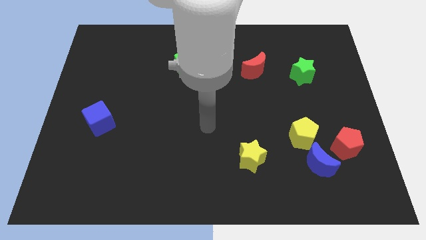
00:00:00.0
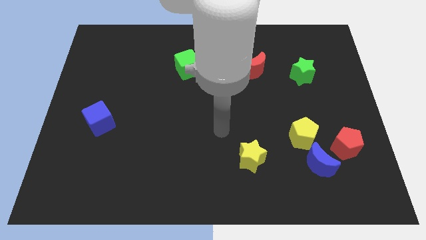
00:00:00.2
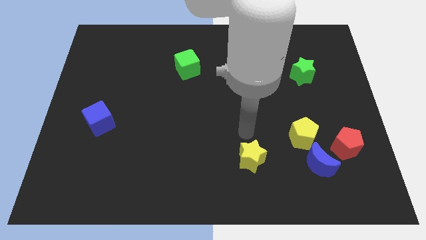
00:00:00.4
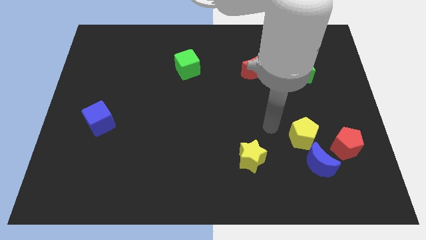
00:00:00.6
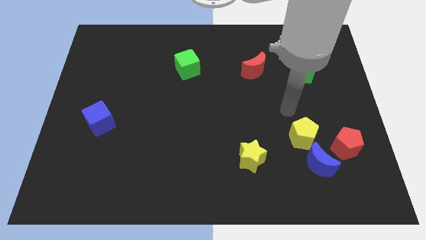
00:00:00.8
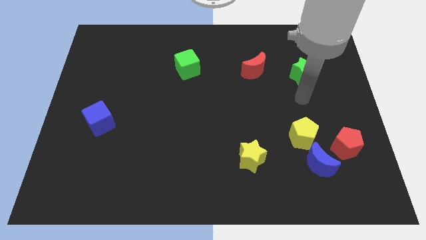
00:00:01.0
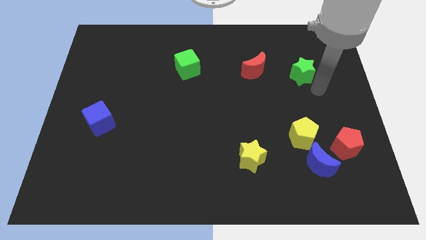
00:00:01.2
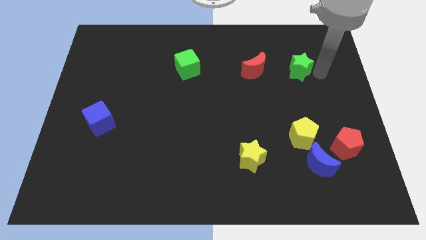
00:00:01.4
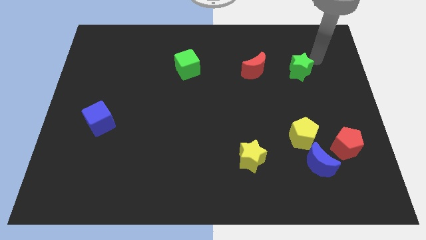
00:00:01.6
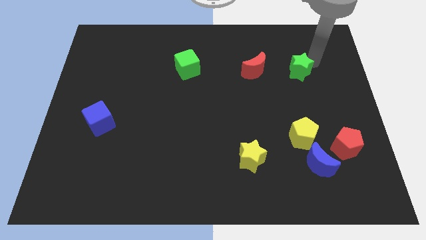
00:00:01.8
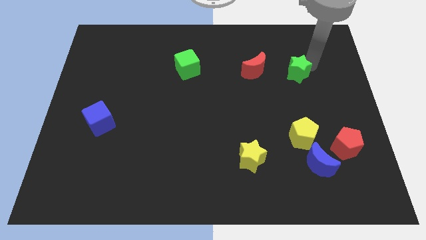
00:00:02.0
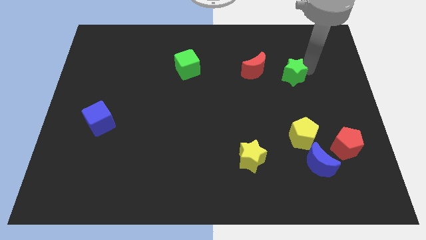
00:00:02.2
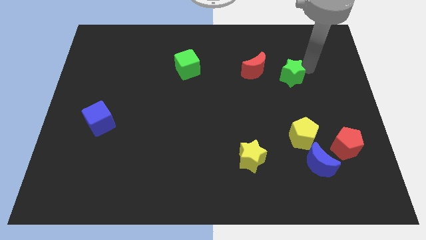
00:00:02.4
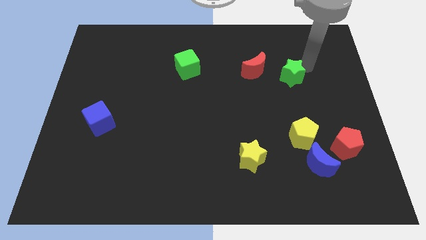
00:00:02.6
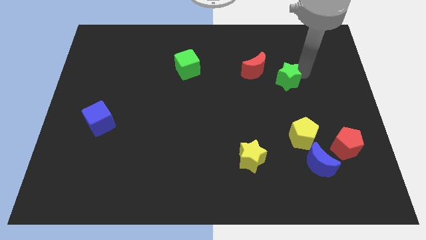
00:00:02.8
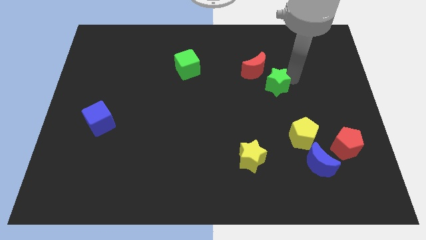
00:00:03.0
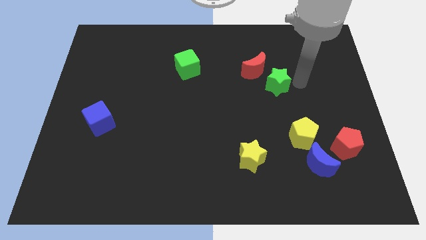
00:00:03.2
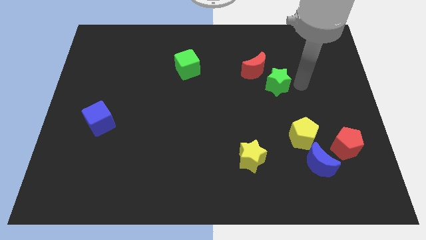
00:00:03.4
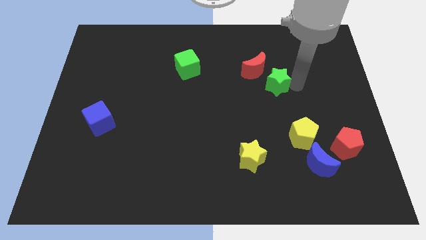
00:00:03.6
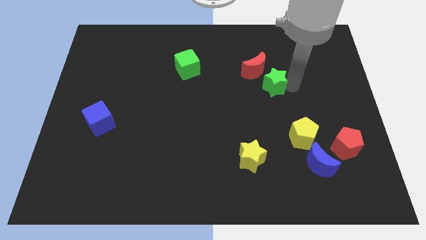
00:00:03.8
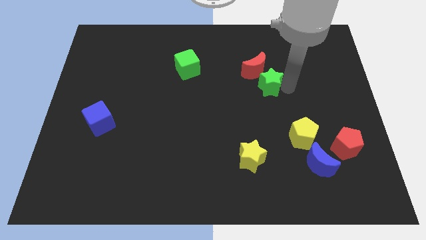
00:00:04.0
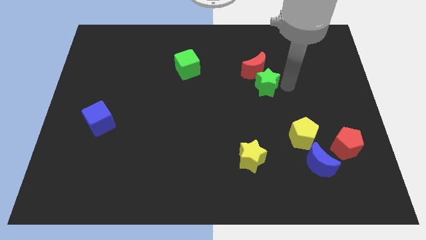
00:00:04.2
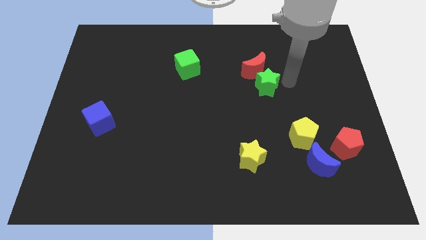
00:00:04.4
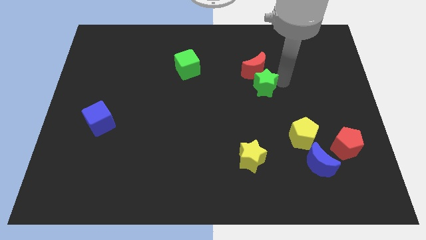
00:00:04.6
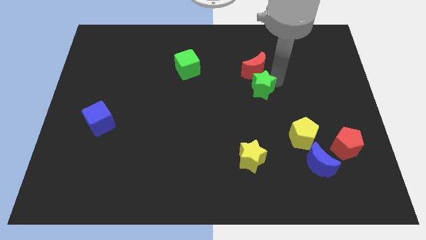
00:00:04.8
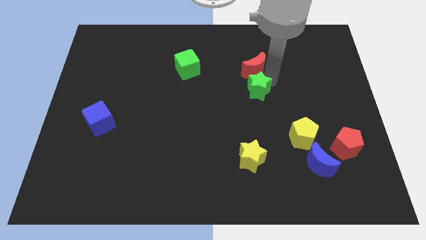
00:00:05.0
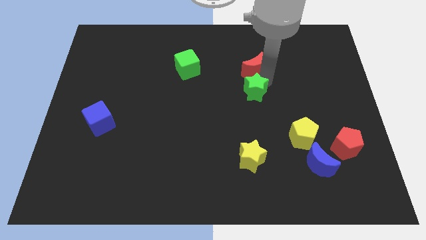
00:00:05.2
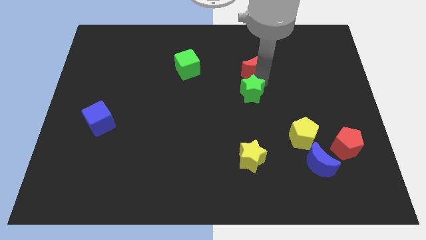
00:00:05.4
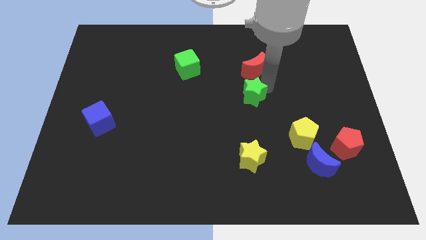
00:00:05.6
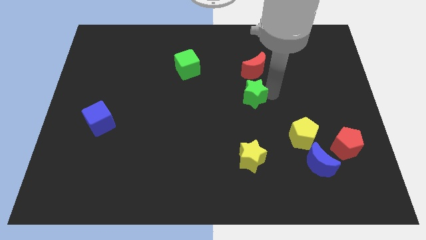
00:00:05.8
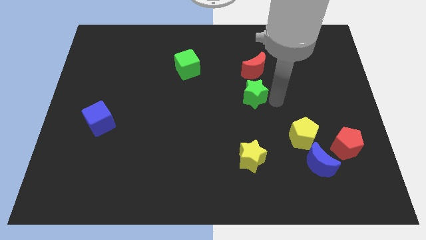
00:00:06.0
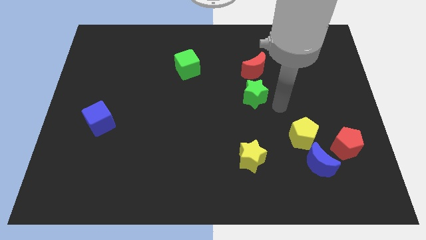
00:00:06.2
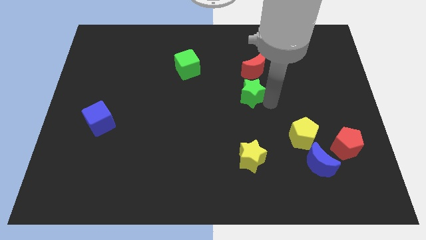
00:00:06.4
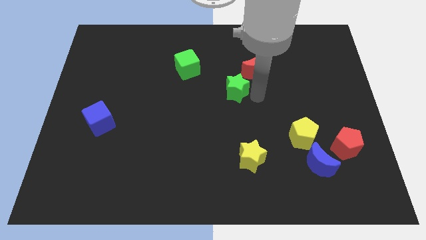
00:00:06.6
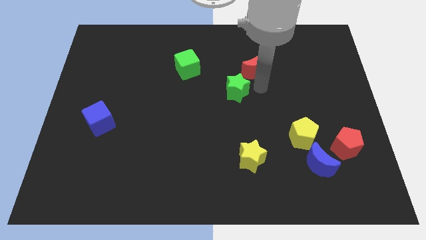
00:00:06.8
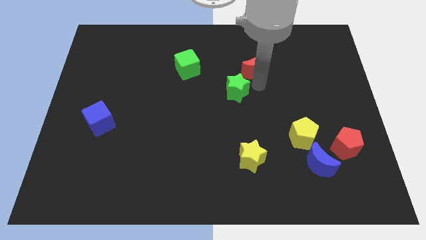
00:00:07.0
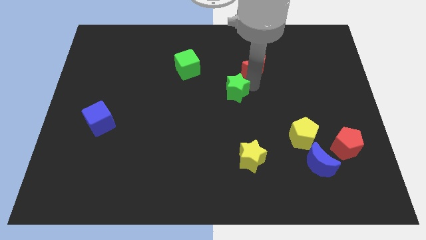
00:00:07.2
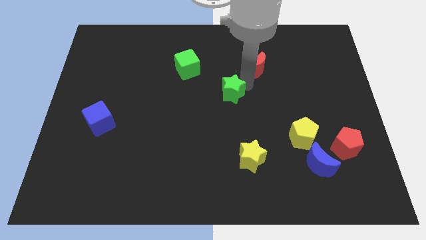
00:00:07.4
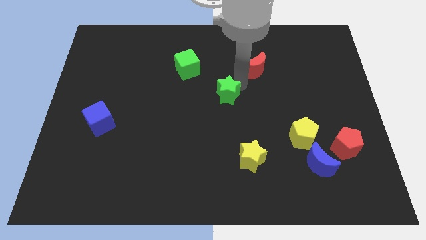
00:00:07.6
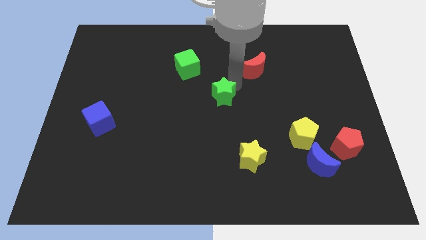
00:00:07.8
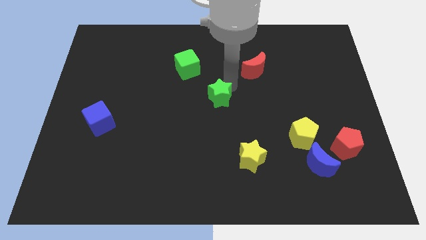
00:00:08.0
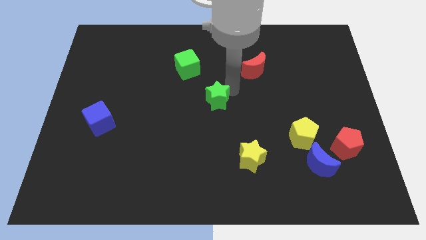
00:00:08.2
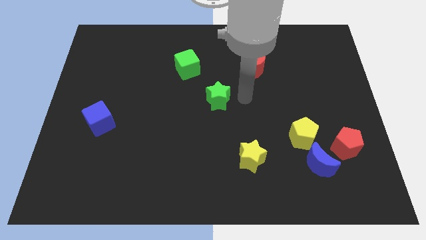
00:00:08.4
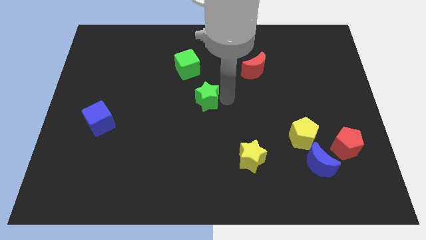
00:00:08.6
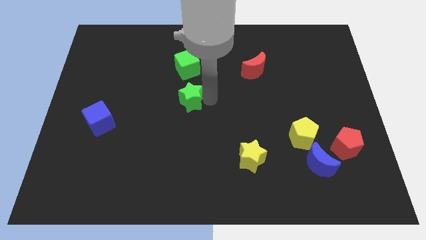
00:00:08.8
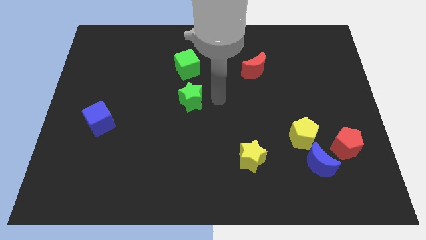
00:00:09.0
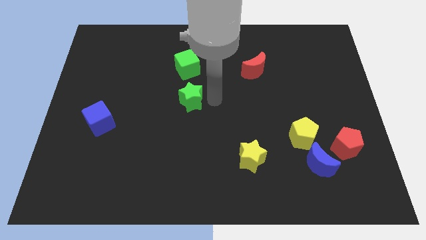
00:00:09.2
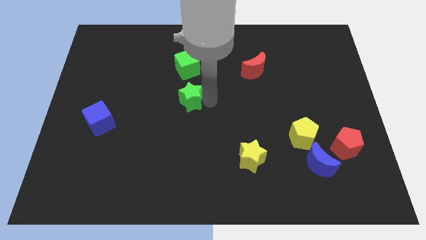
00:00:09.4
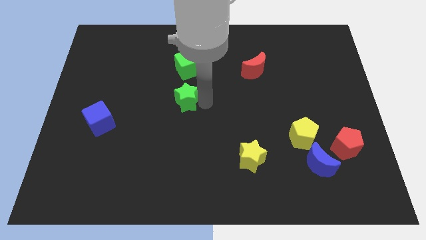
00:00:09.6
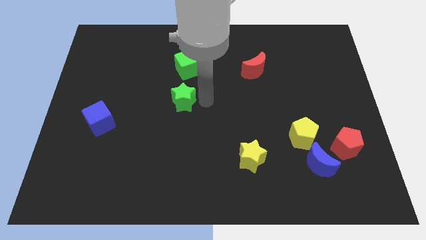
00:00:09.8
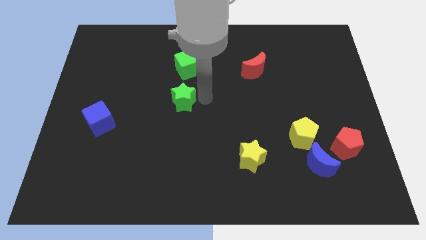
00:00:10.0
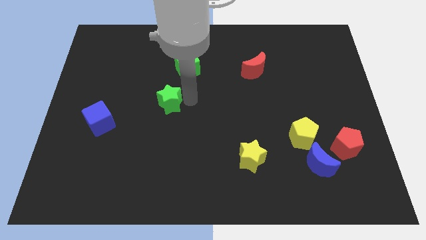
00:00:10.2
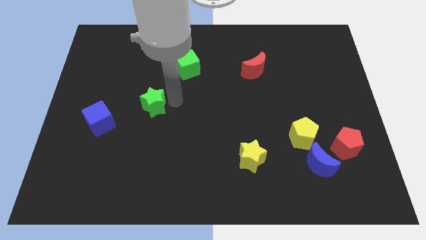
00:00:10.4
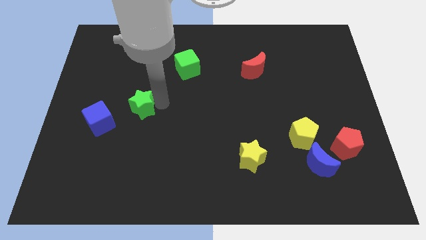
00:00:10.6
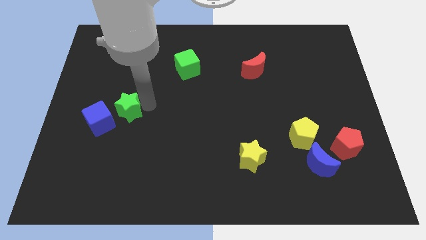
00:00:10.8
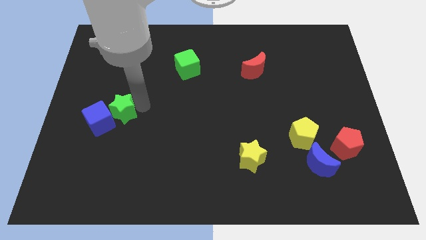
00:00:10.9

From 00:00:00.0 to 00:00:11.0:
slide the green star towards the blue cube

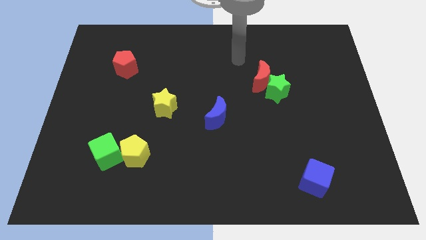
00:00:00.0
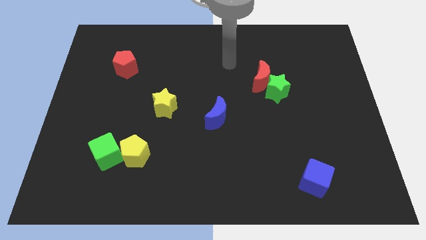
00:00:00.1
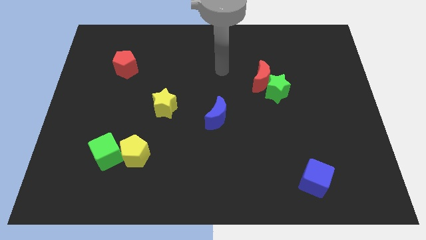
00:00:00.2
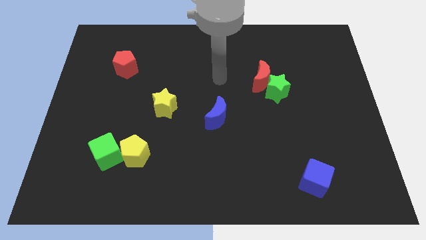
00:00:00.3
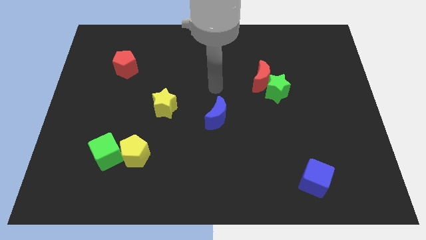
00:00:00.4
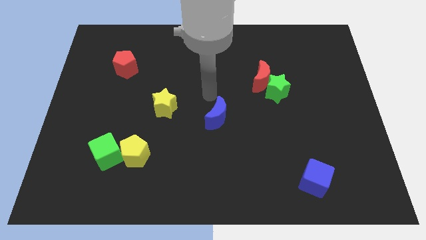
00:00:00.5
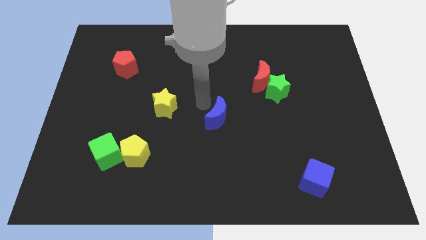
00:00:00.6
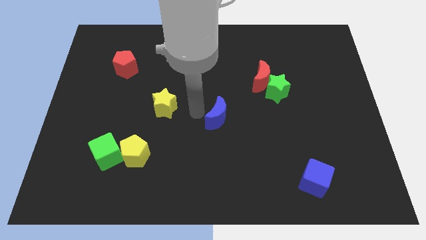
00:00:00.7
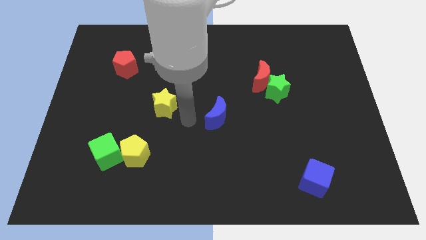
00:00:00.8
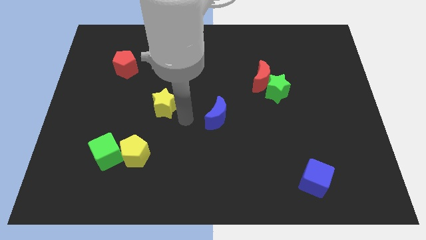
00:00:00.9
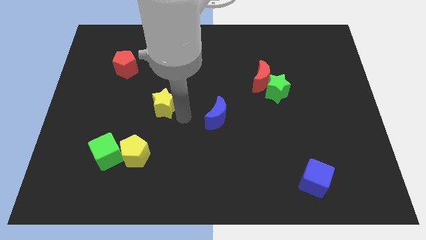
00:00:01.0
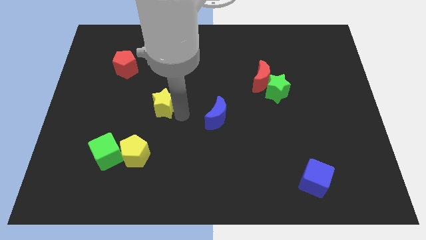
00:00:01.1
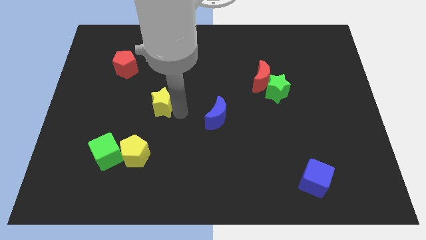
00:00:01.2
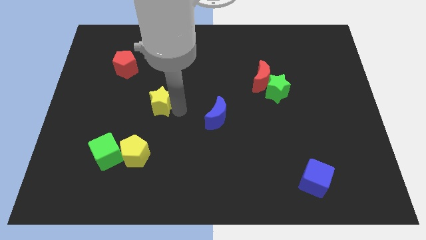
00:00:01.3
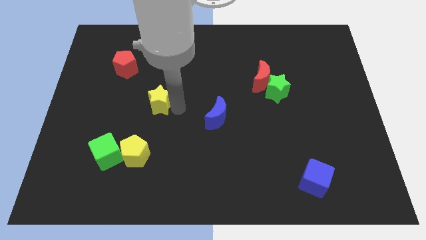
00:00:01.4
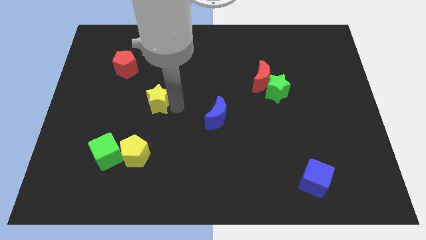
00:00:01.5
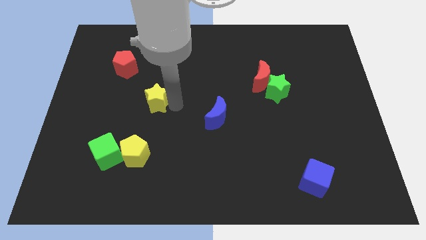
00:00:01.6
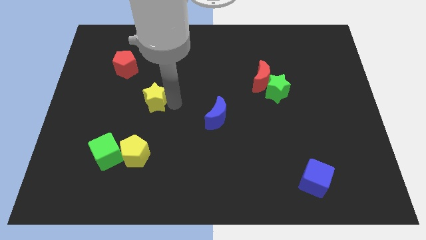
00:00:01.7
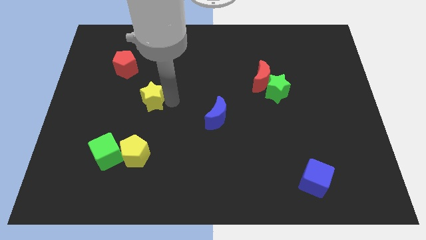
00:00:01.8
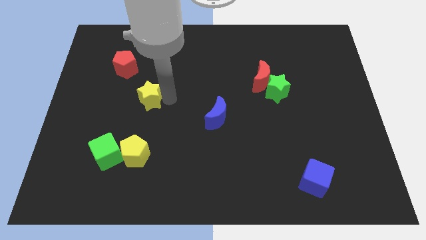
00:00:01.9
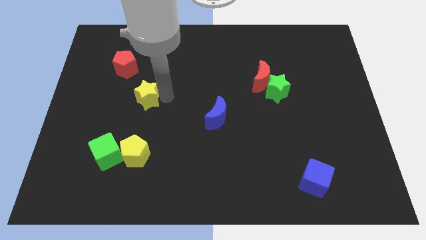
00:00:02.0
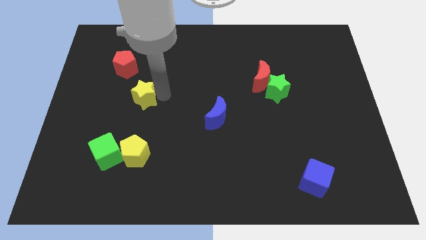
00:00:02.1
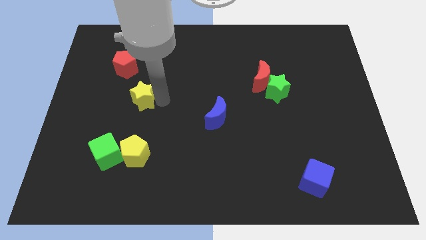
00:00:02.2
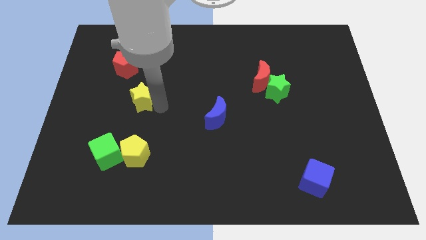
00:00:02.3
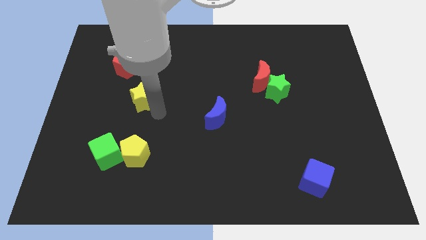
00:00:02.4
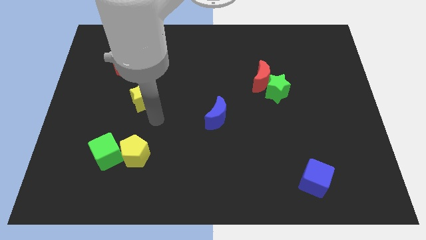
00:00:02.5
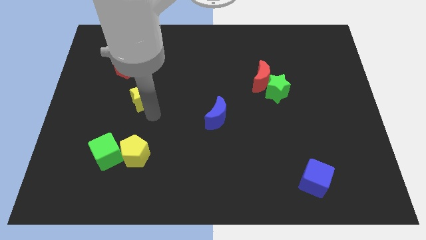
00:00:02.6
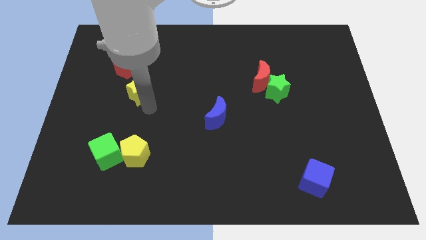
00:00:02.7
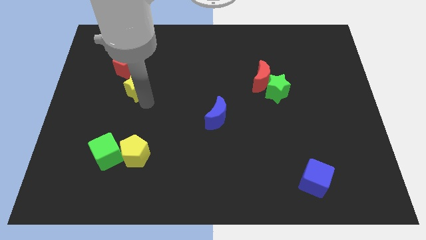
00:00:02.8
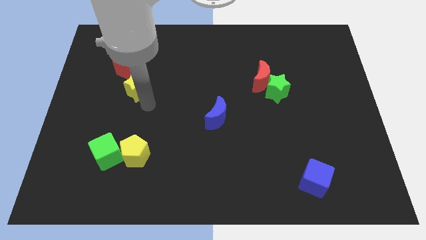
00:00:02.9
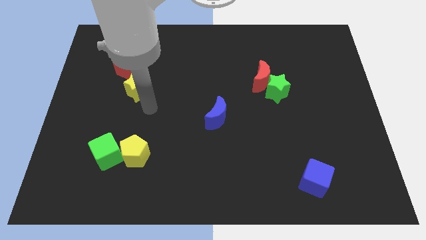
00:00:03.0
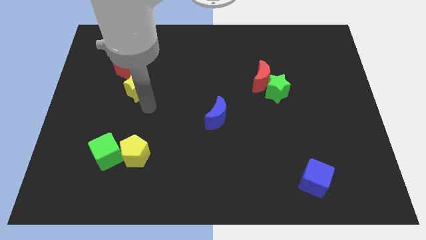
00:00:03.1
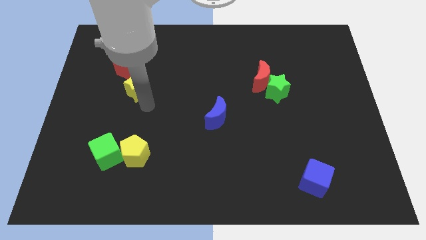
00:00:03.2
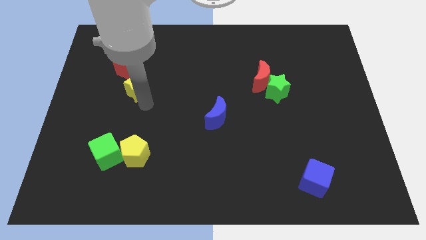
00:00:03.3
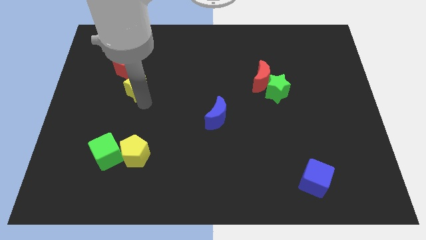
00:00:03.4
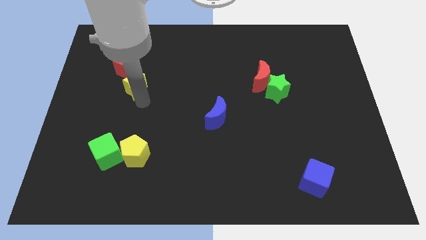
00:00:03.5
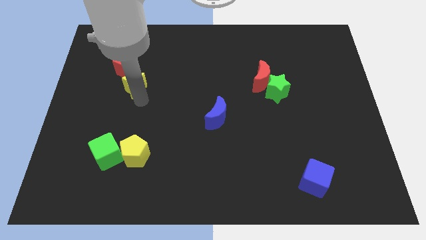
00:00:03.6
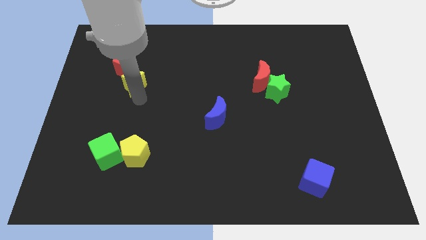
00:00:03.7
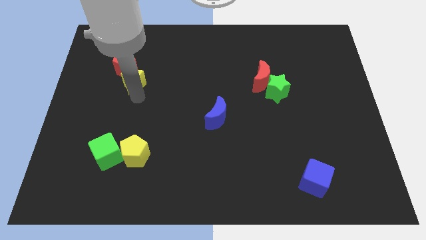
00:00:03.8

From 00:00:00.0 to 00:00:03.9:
push the yellow star next to the red pentagon
